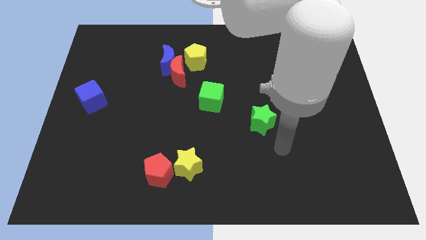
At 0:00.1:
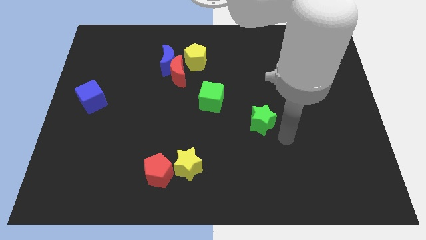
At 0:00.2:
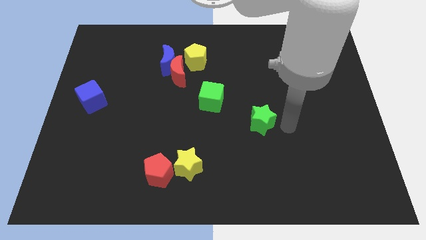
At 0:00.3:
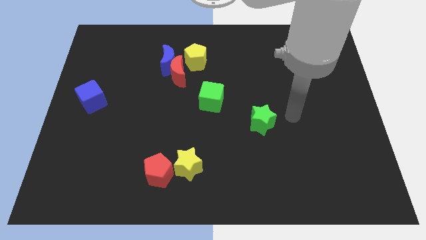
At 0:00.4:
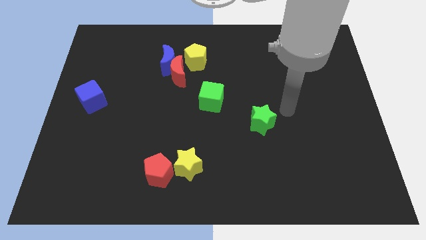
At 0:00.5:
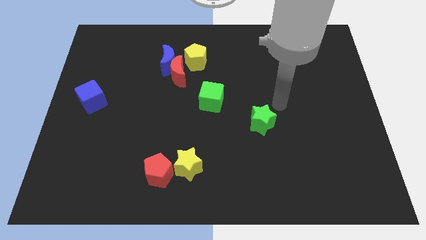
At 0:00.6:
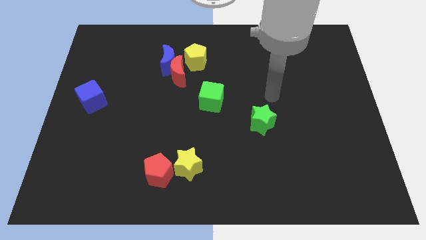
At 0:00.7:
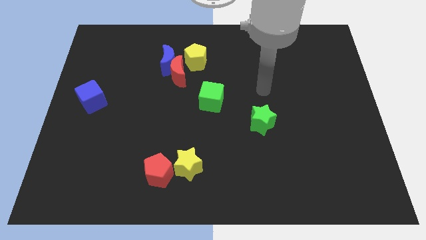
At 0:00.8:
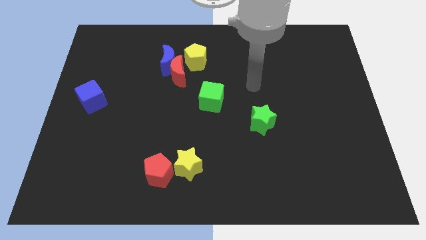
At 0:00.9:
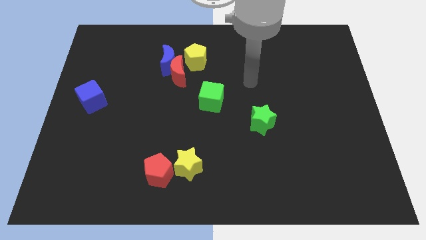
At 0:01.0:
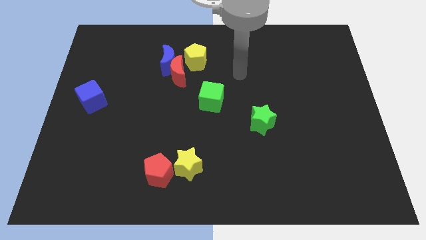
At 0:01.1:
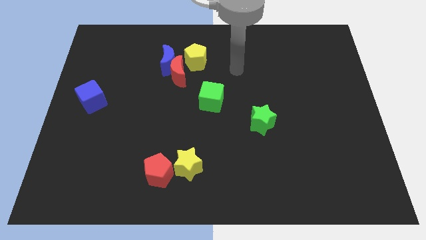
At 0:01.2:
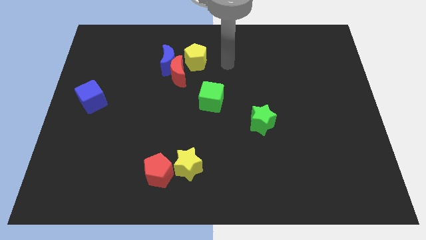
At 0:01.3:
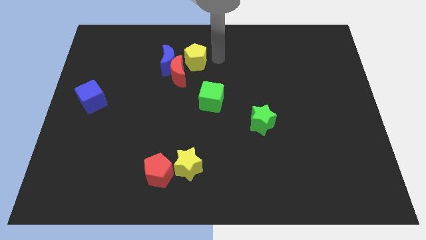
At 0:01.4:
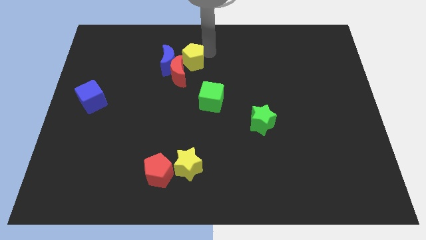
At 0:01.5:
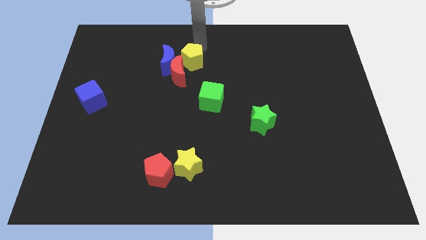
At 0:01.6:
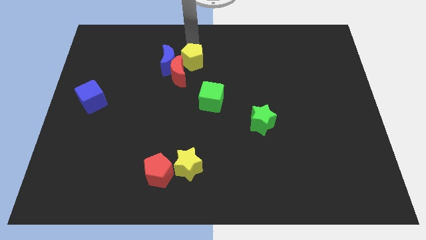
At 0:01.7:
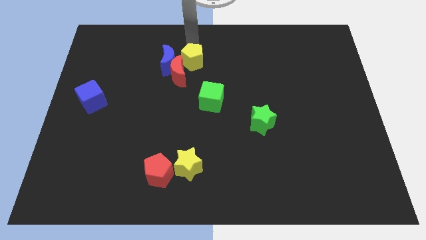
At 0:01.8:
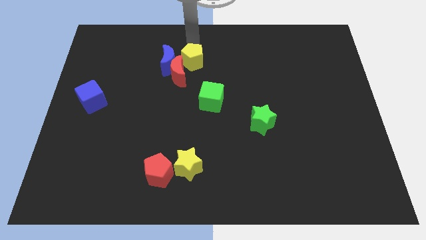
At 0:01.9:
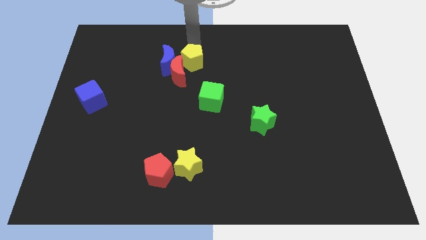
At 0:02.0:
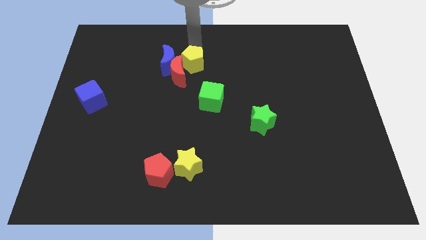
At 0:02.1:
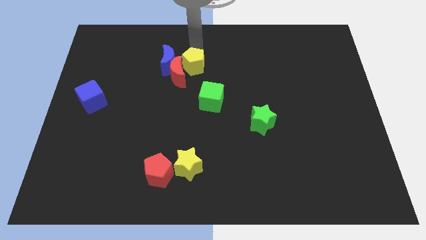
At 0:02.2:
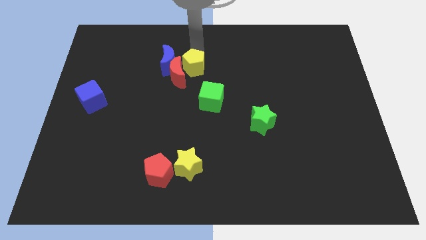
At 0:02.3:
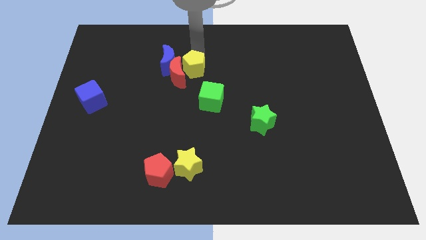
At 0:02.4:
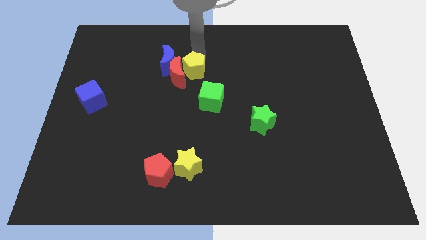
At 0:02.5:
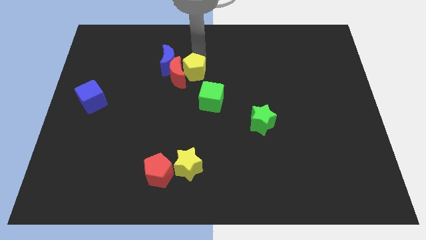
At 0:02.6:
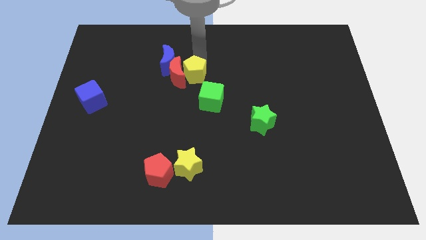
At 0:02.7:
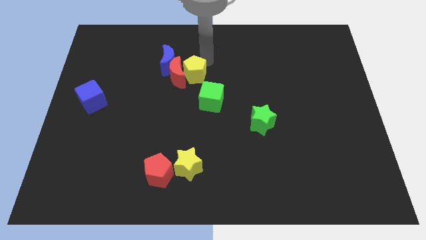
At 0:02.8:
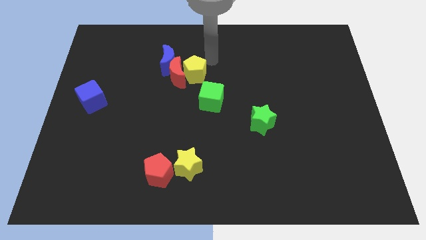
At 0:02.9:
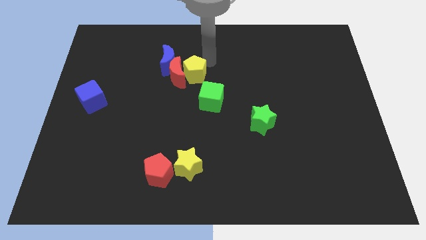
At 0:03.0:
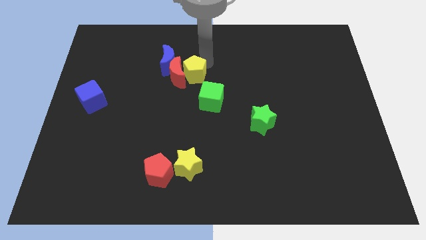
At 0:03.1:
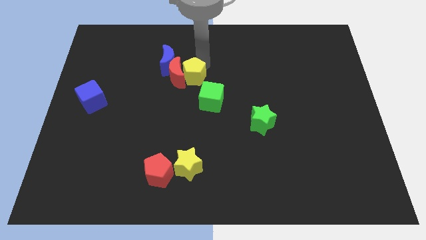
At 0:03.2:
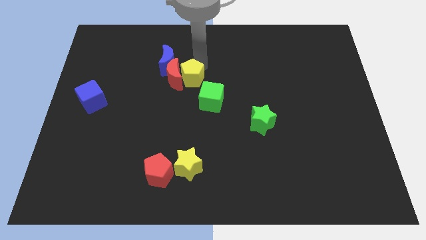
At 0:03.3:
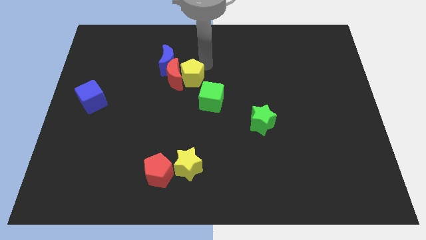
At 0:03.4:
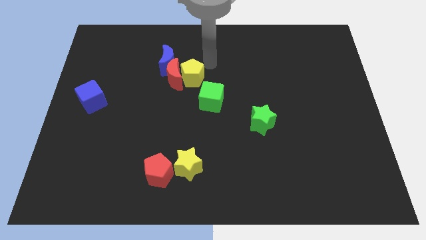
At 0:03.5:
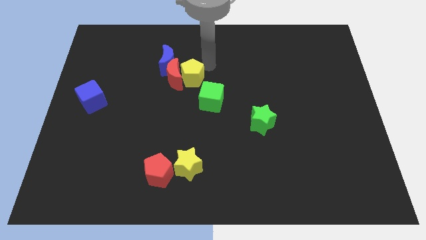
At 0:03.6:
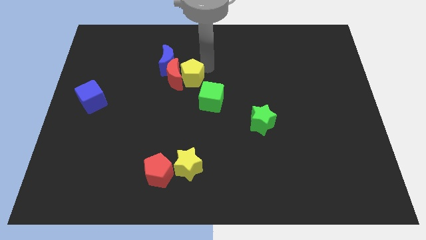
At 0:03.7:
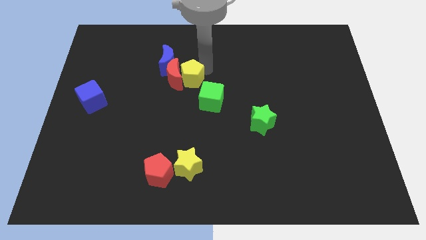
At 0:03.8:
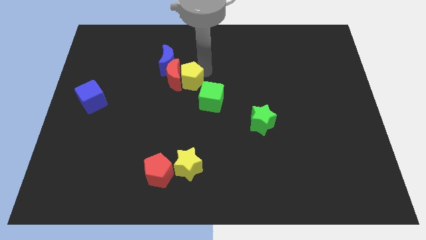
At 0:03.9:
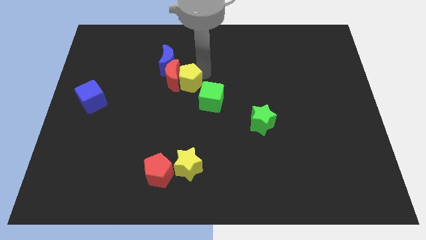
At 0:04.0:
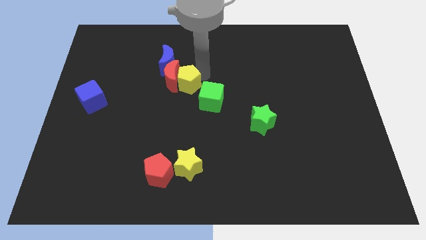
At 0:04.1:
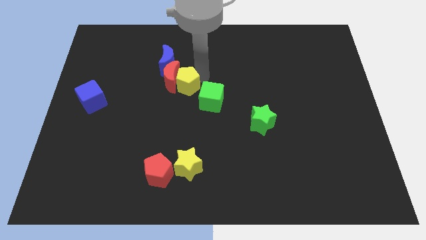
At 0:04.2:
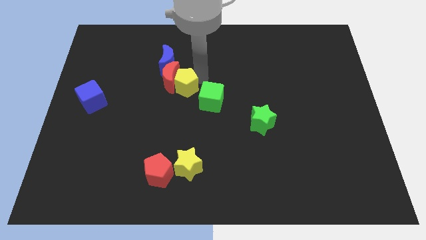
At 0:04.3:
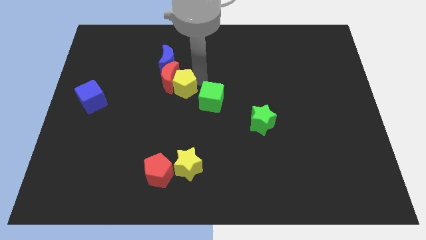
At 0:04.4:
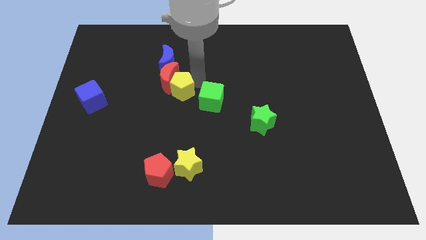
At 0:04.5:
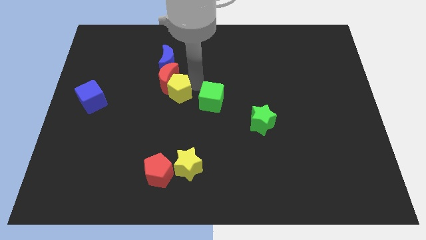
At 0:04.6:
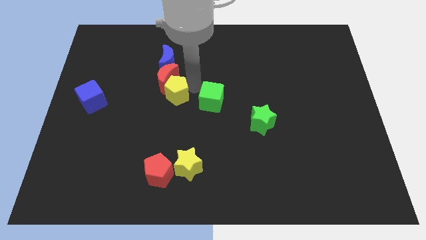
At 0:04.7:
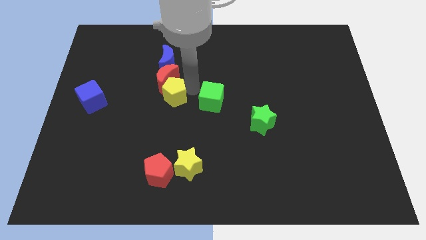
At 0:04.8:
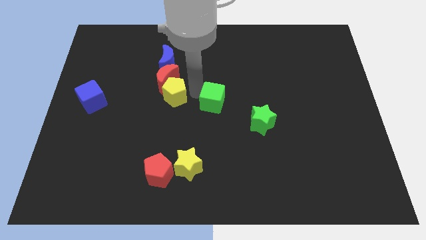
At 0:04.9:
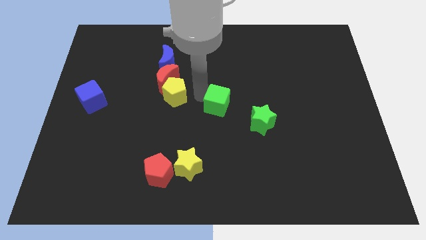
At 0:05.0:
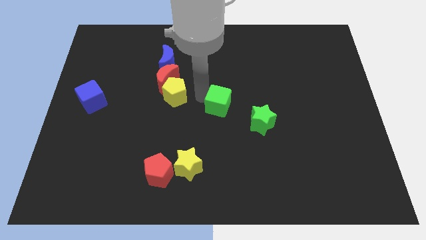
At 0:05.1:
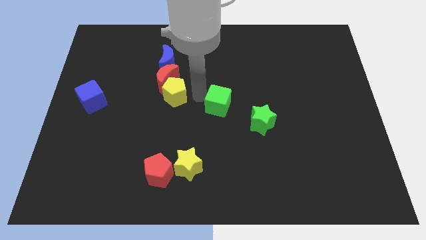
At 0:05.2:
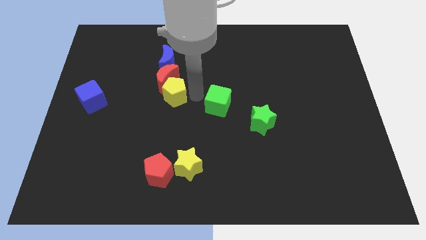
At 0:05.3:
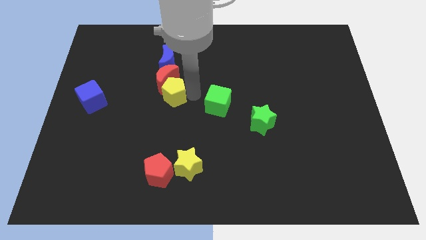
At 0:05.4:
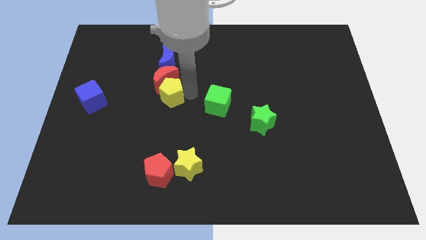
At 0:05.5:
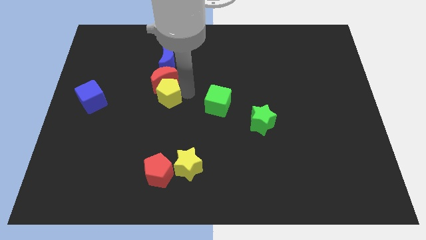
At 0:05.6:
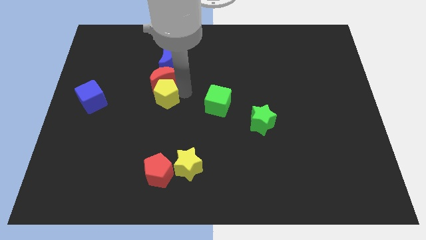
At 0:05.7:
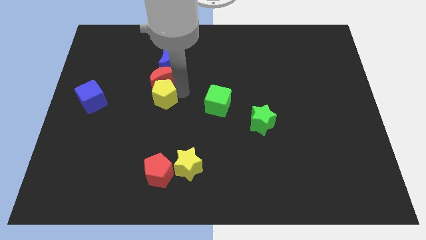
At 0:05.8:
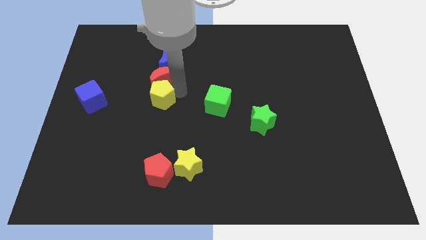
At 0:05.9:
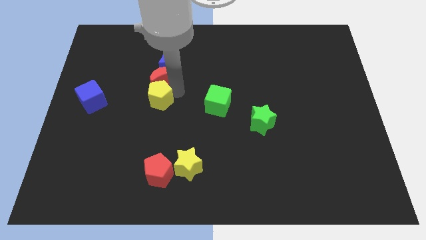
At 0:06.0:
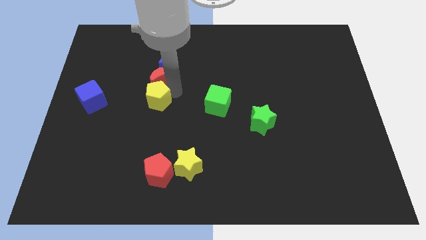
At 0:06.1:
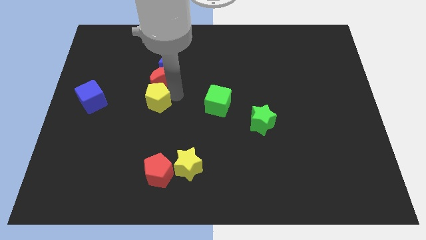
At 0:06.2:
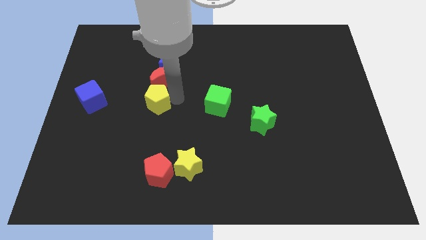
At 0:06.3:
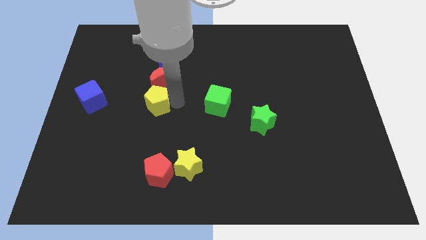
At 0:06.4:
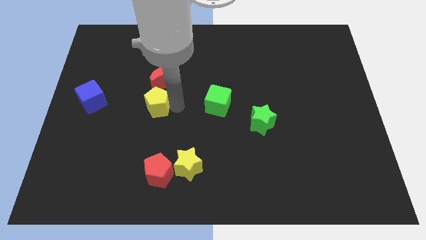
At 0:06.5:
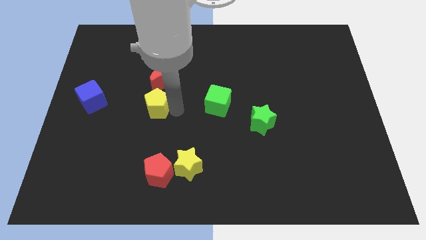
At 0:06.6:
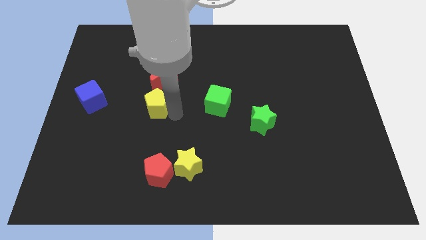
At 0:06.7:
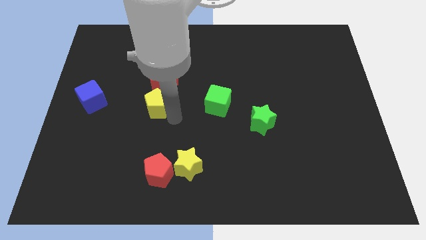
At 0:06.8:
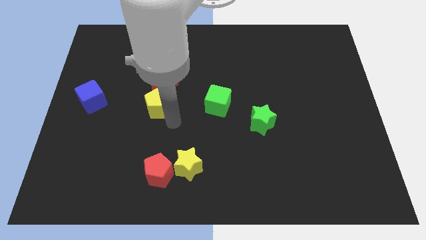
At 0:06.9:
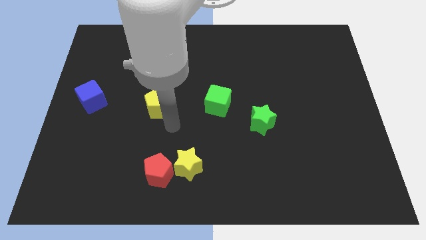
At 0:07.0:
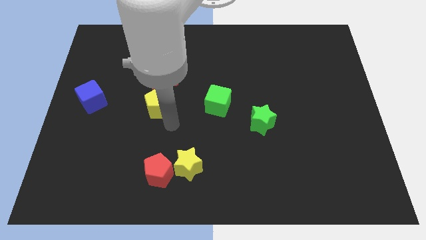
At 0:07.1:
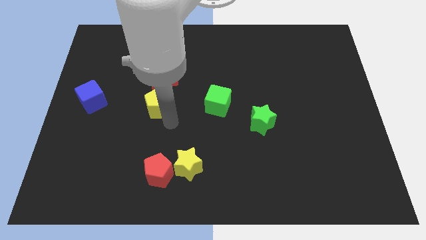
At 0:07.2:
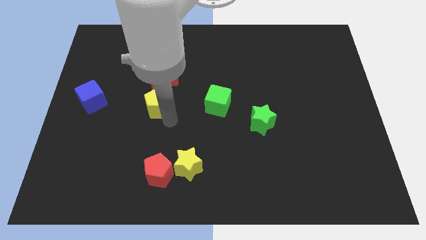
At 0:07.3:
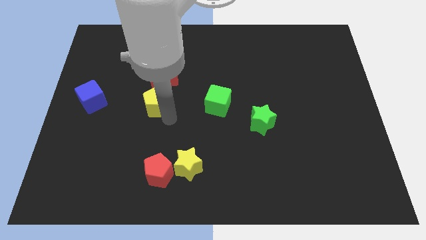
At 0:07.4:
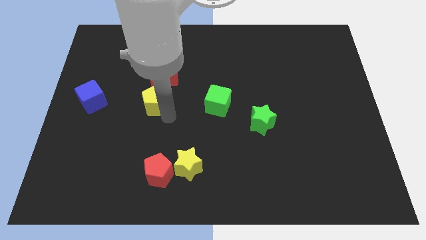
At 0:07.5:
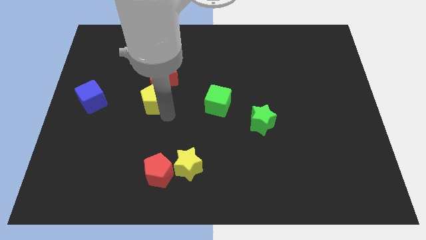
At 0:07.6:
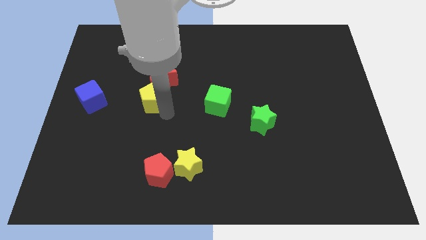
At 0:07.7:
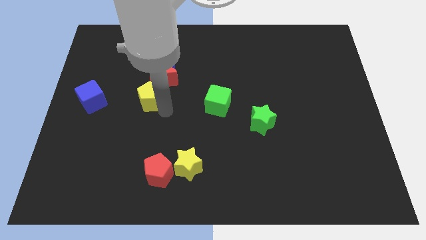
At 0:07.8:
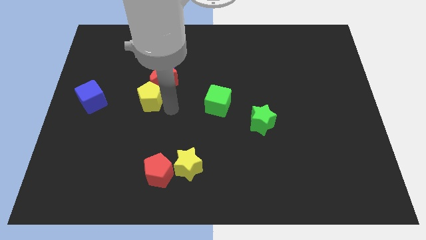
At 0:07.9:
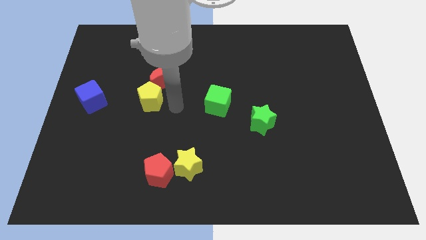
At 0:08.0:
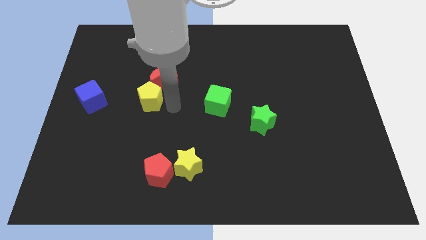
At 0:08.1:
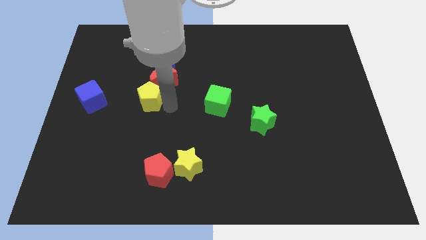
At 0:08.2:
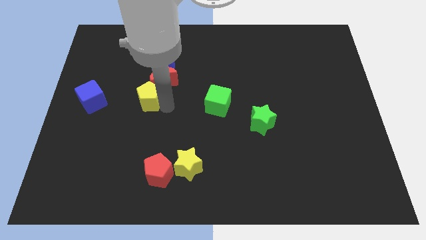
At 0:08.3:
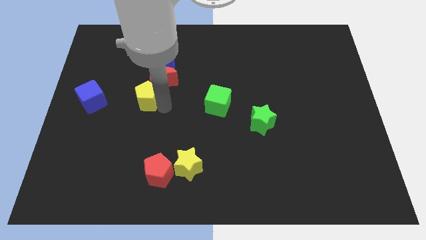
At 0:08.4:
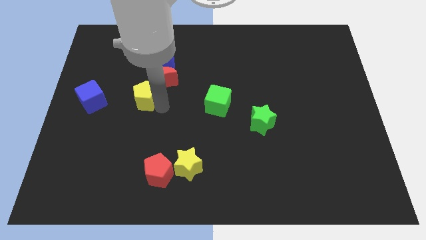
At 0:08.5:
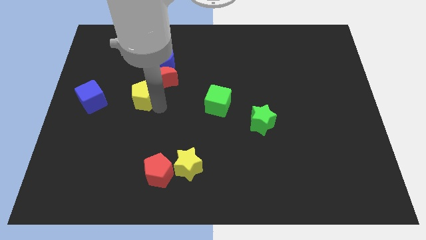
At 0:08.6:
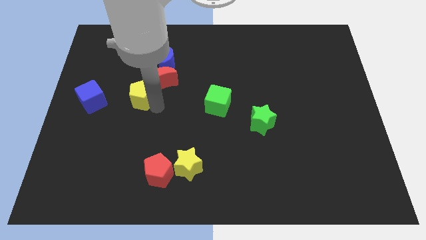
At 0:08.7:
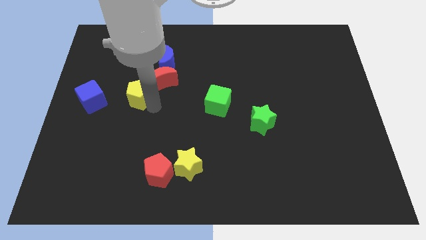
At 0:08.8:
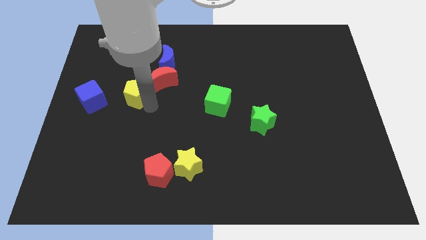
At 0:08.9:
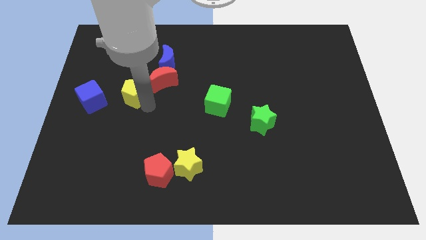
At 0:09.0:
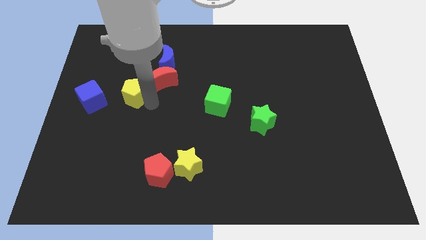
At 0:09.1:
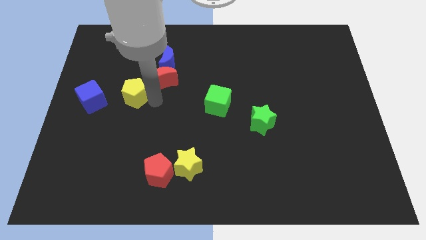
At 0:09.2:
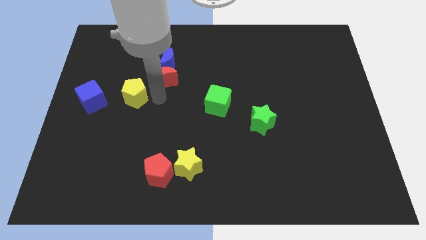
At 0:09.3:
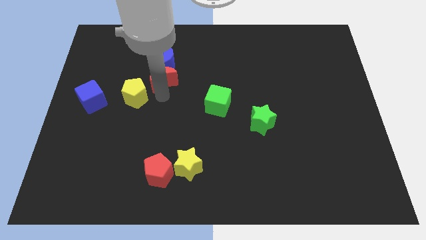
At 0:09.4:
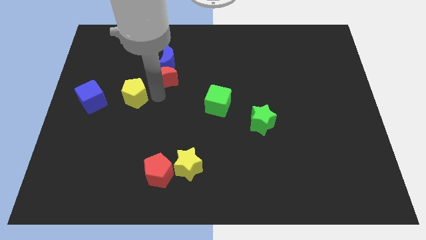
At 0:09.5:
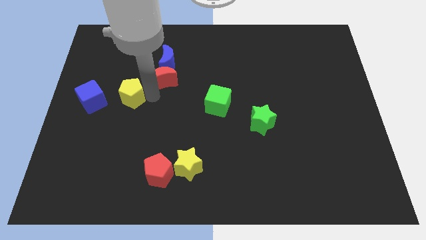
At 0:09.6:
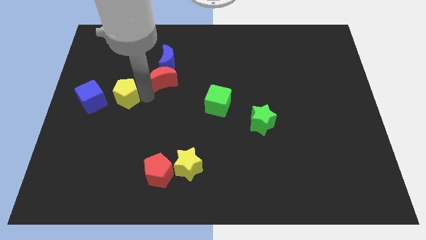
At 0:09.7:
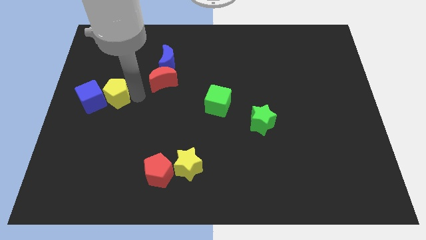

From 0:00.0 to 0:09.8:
put the yellow pentagon close to the blue cube
